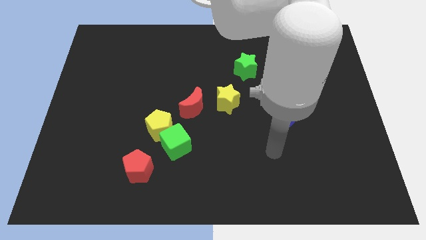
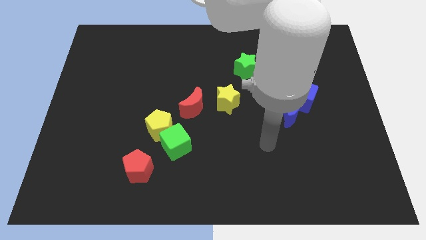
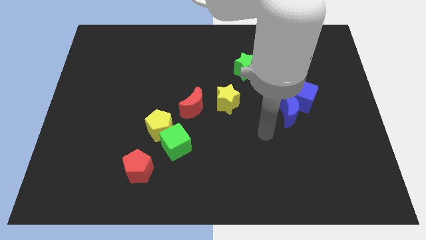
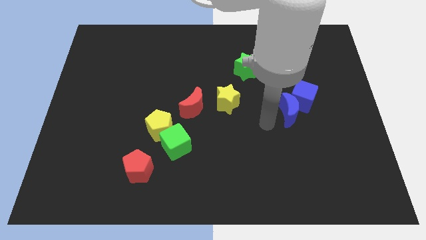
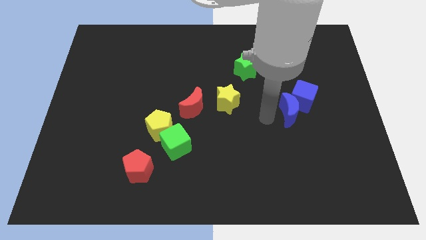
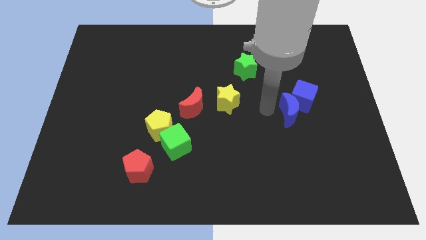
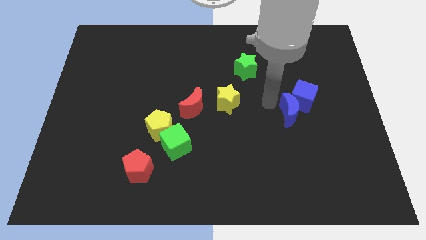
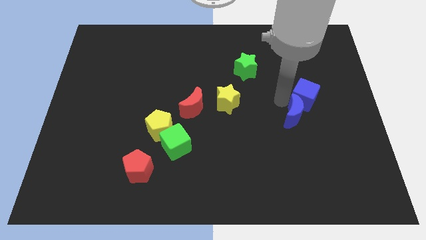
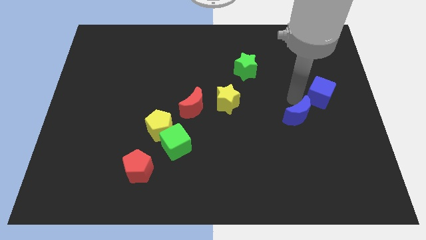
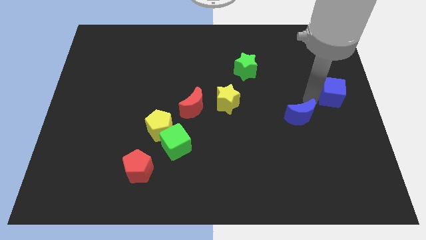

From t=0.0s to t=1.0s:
move the blue moon away from the blue cube

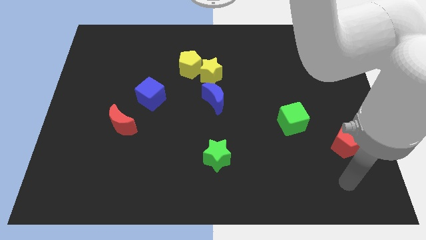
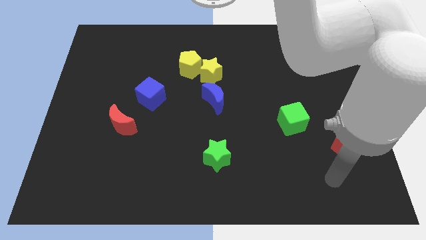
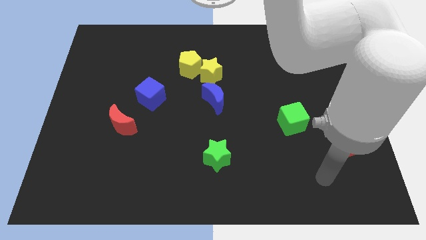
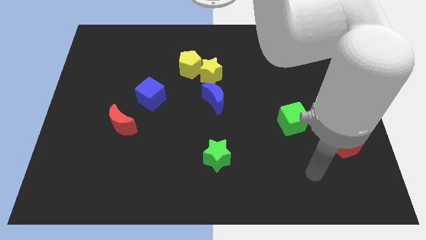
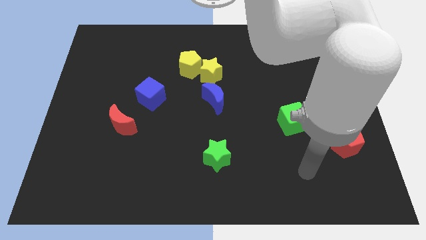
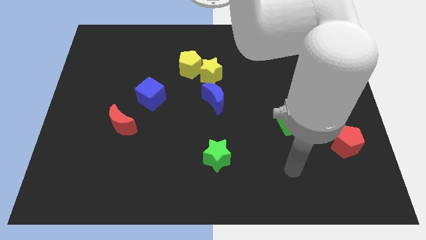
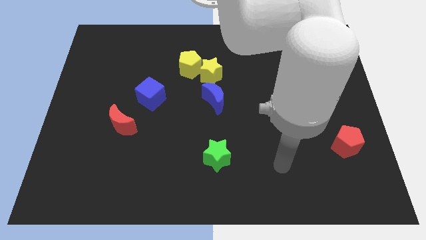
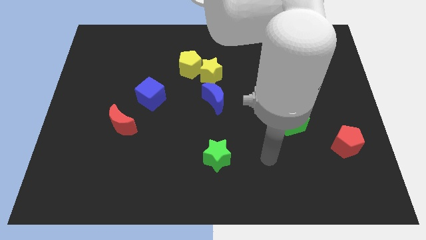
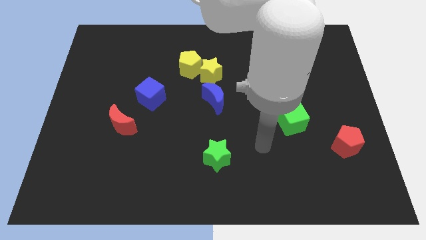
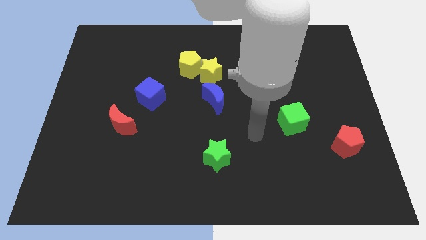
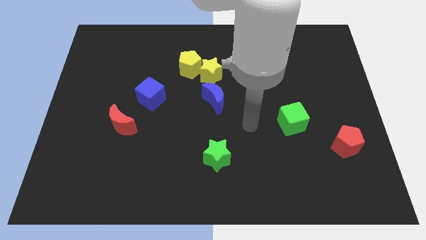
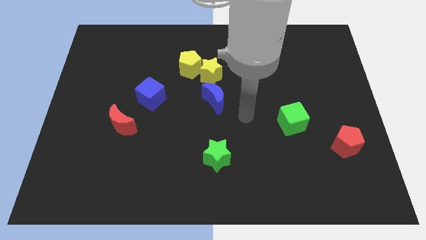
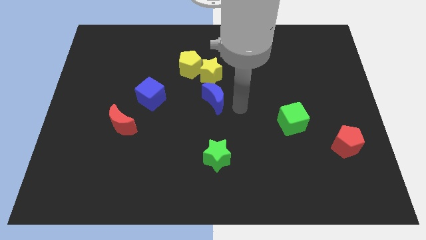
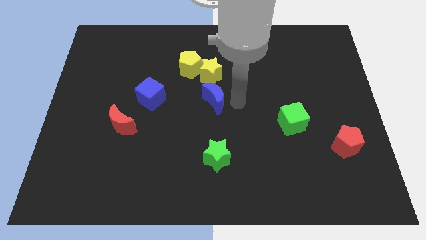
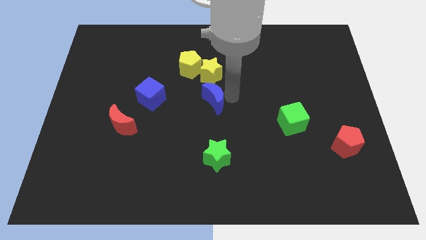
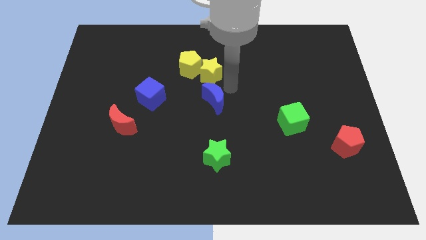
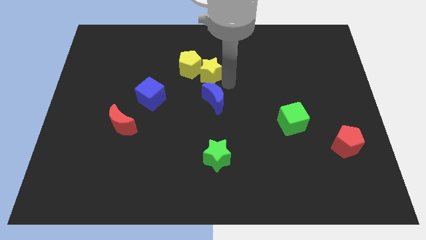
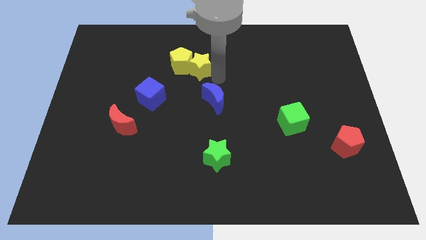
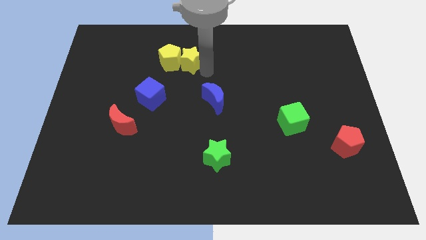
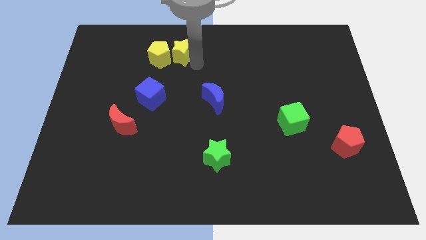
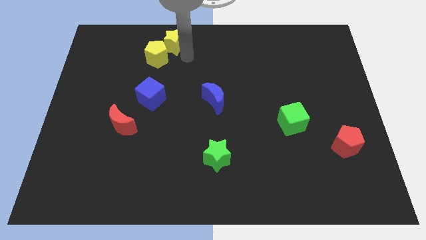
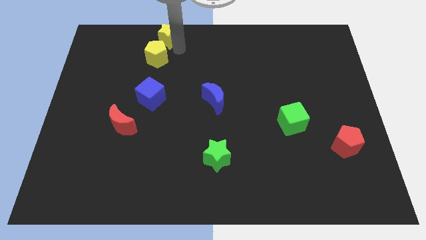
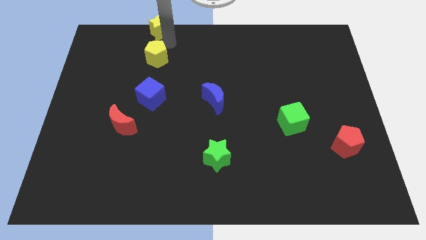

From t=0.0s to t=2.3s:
separate the yellow pentagon from the yellow star

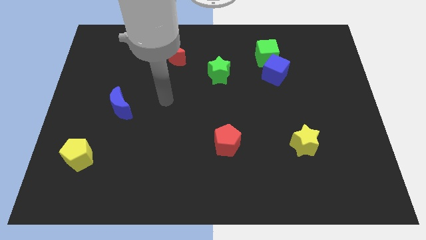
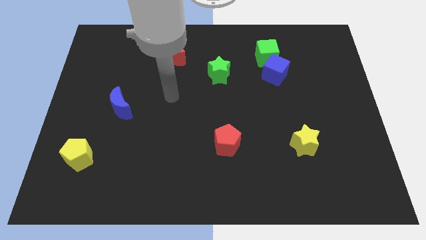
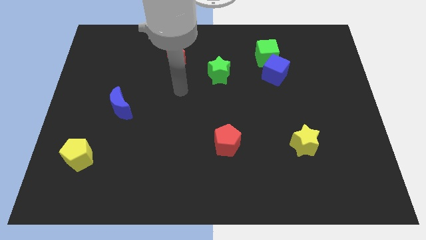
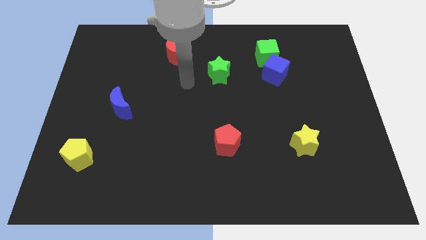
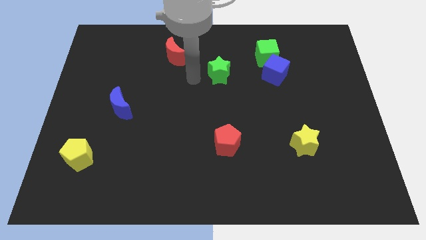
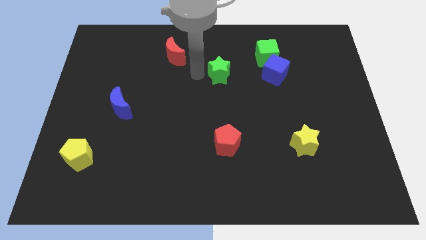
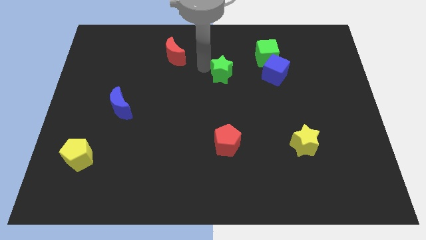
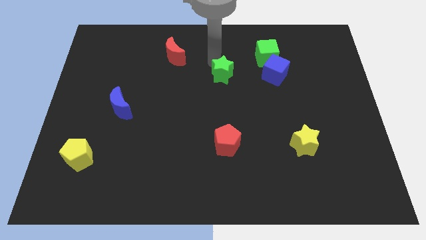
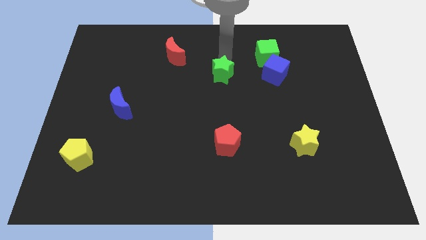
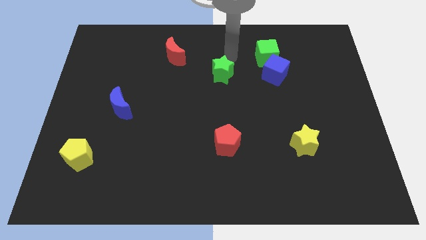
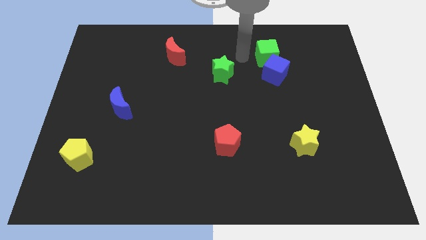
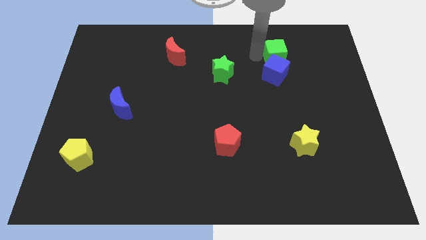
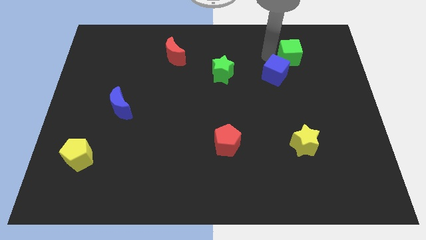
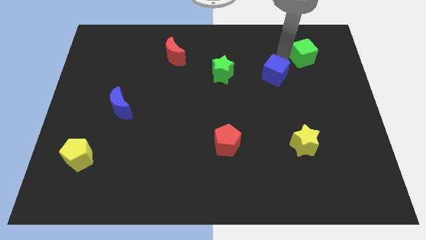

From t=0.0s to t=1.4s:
separate the blue cube from the green cube

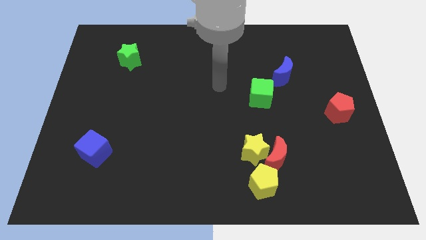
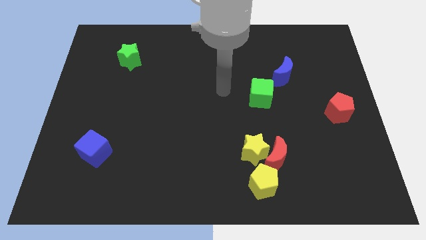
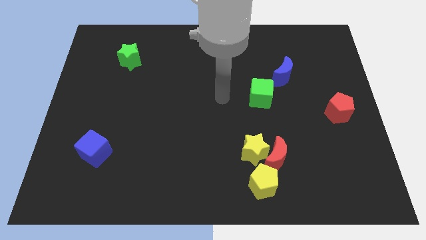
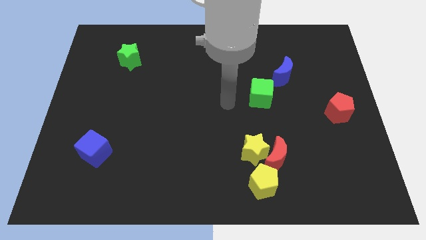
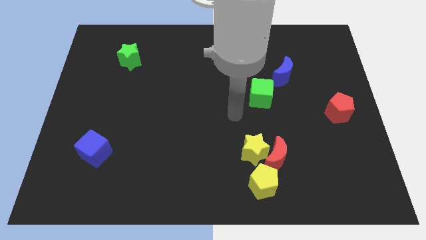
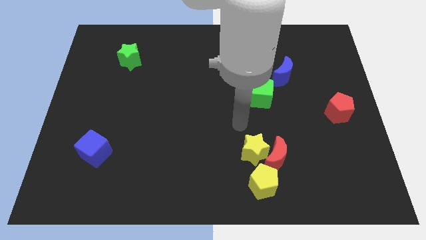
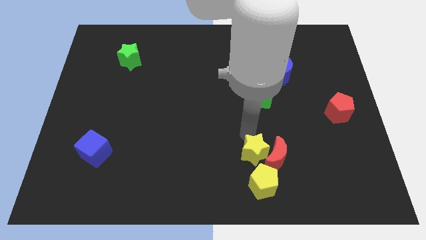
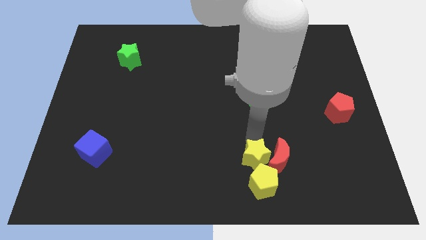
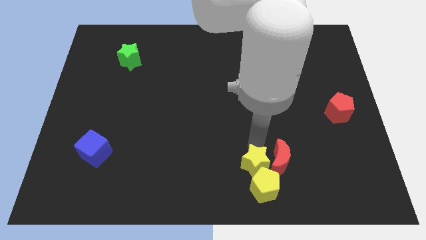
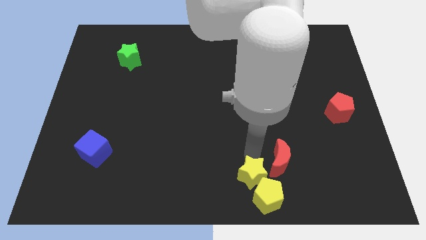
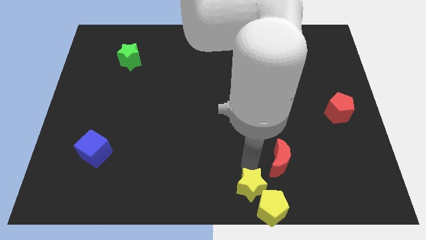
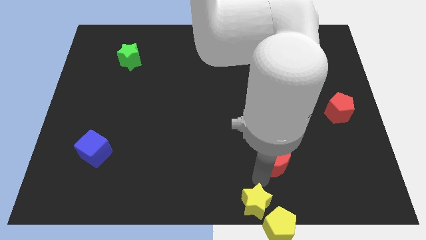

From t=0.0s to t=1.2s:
separate the red moon from the yellow star and yellow pentagon

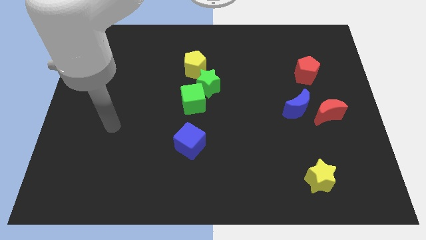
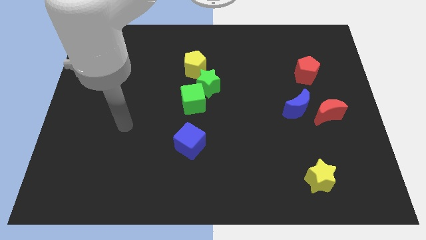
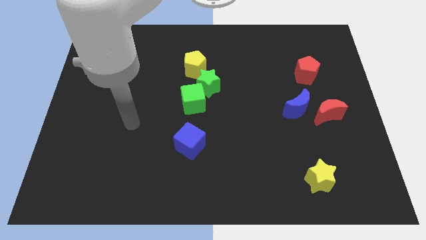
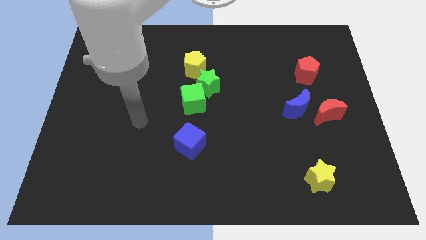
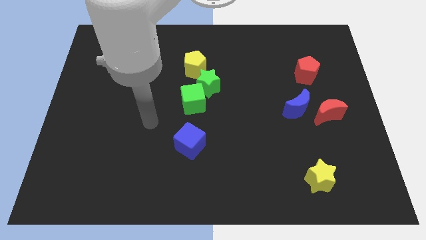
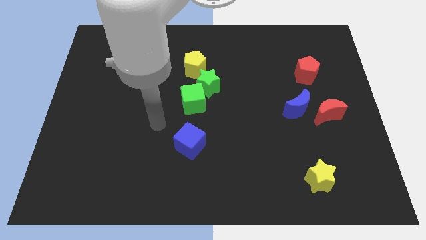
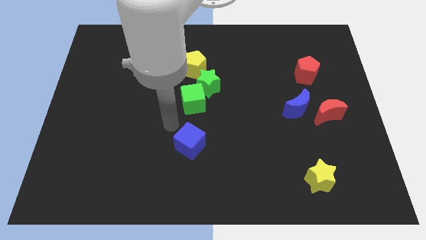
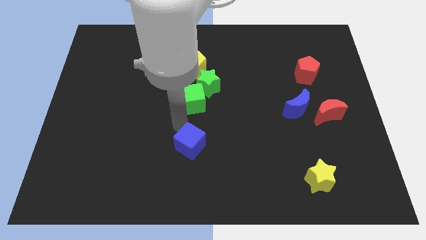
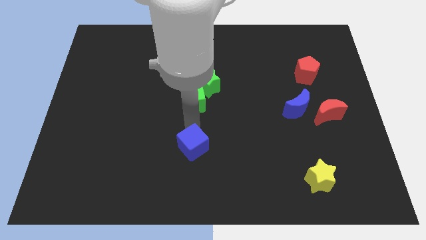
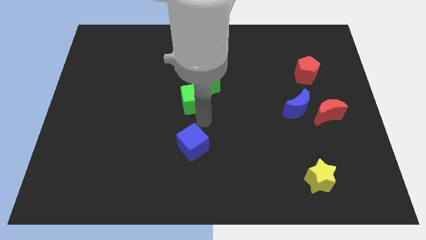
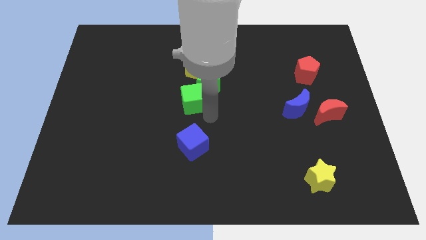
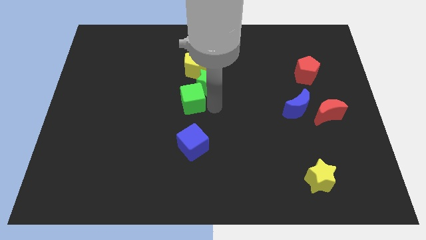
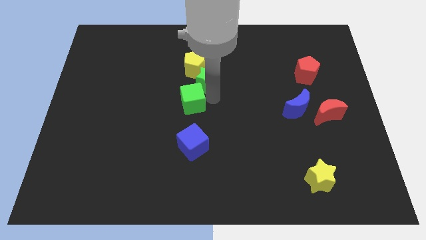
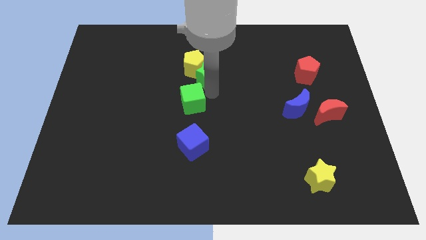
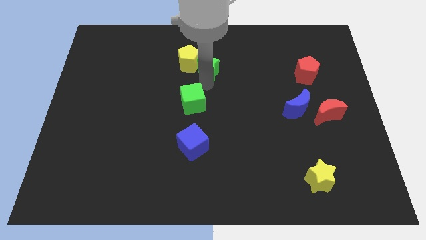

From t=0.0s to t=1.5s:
separate the green cube from the green star

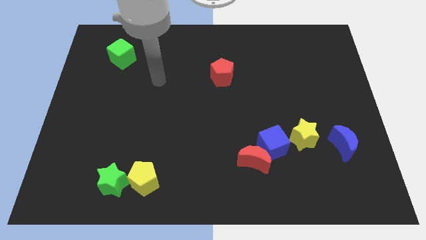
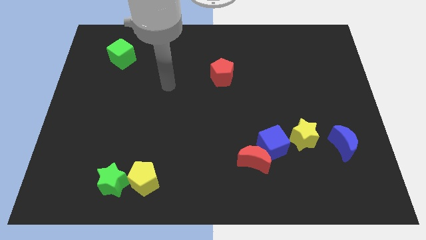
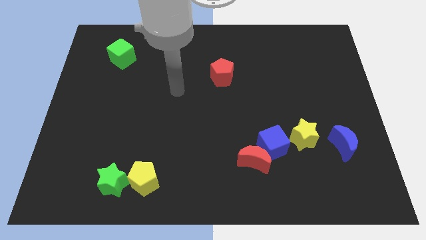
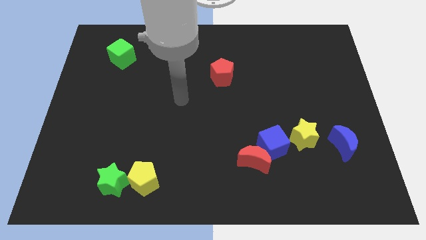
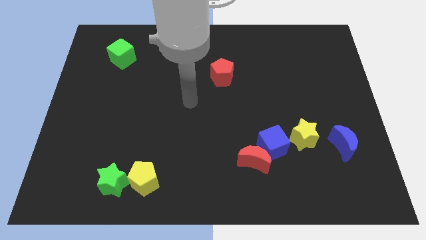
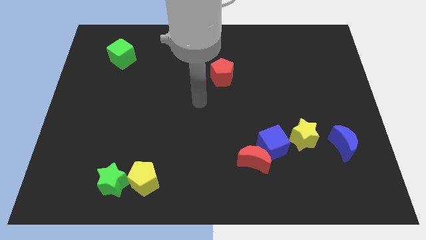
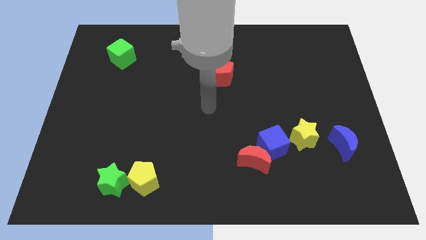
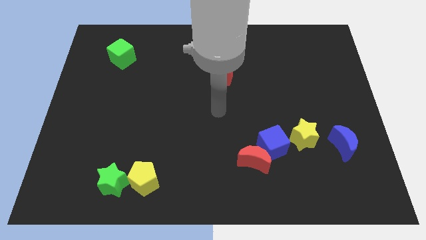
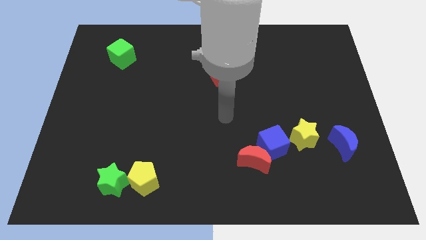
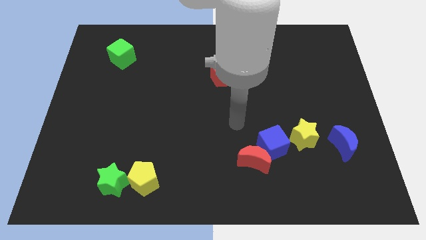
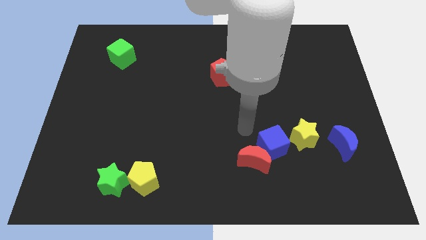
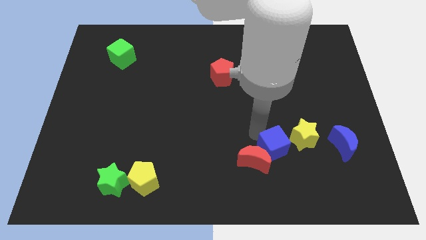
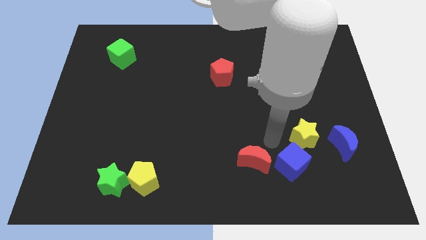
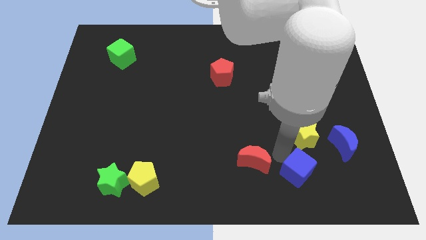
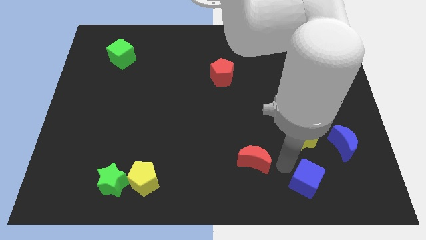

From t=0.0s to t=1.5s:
move the red moon away from the blue cube

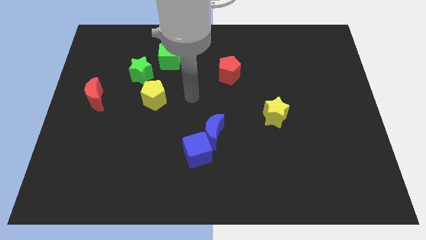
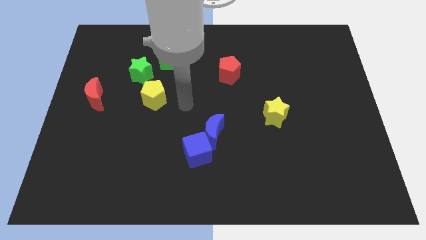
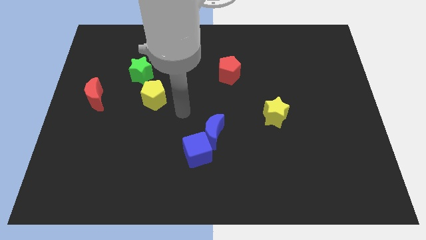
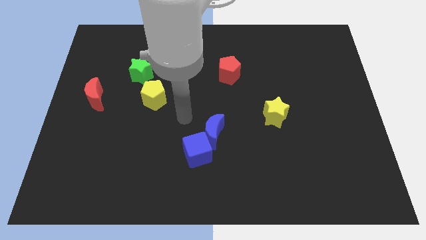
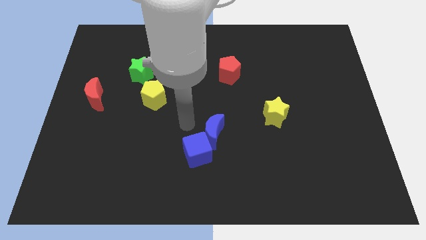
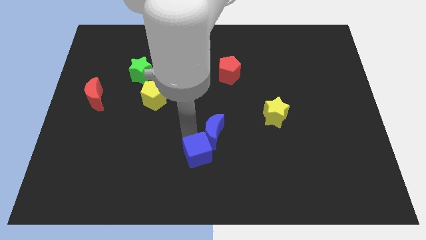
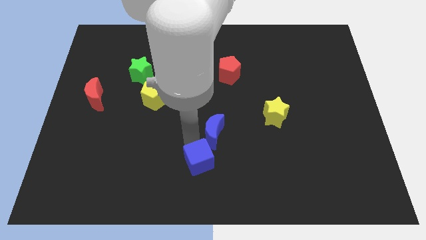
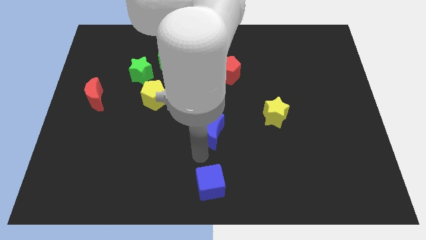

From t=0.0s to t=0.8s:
separate the blue moon from the blue cube
